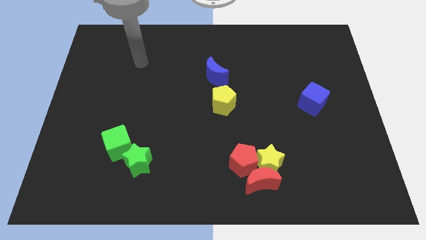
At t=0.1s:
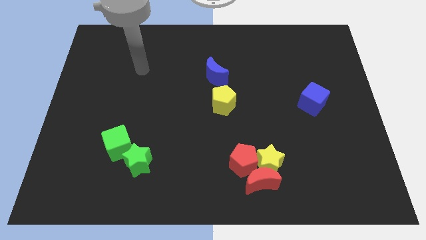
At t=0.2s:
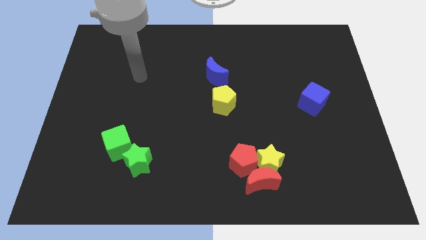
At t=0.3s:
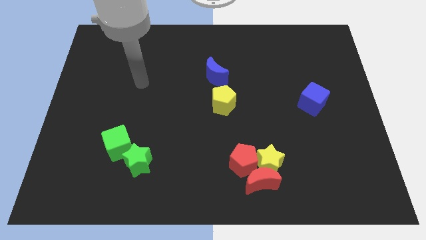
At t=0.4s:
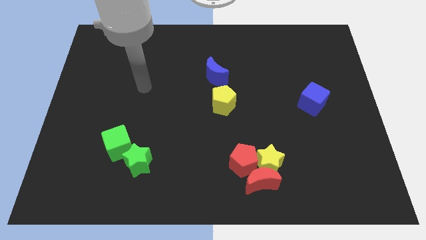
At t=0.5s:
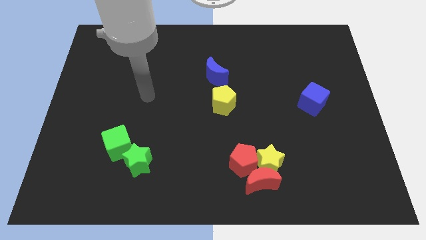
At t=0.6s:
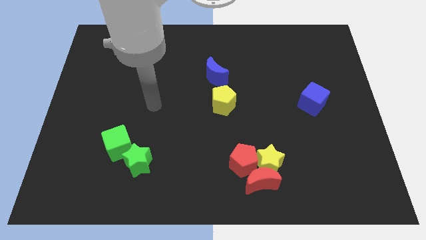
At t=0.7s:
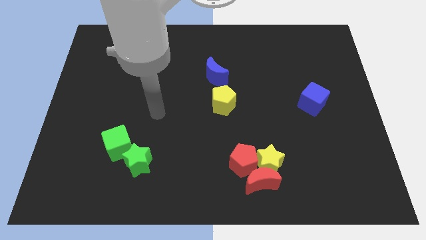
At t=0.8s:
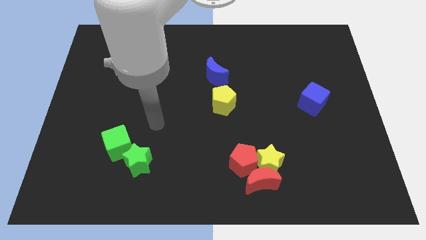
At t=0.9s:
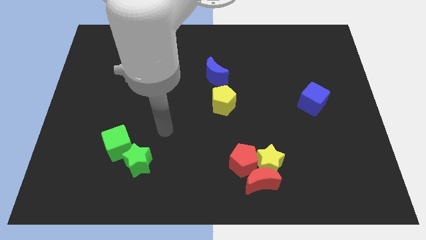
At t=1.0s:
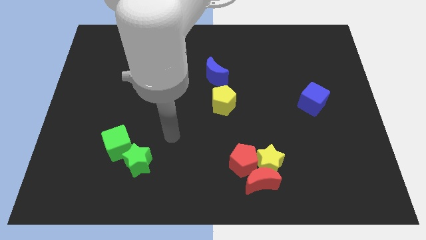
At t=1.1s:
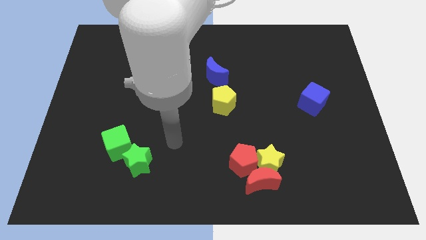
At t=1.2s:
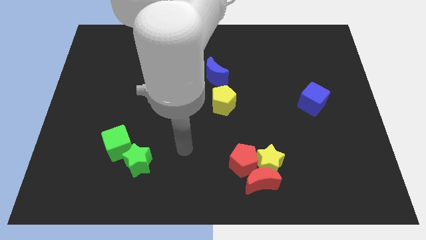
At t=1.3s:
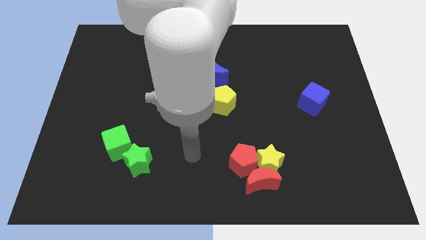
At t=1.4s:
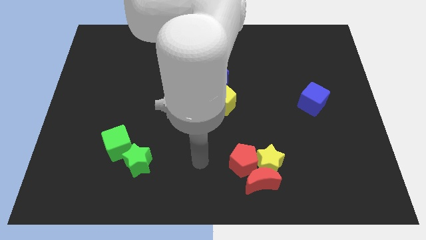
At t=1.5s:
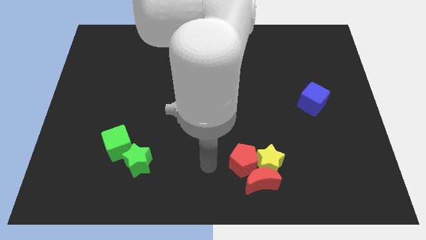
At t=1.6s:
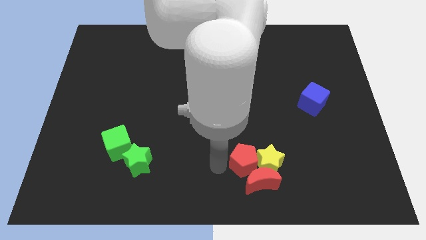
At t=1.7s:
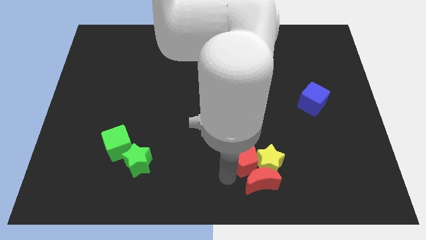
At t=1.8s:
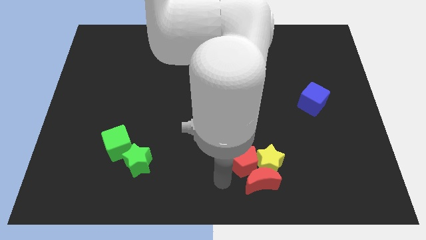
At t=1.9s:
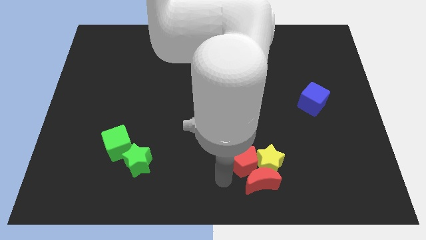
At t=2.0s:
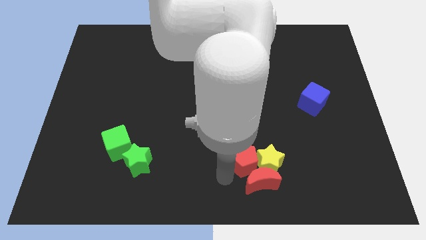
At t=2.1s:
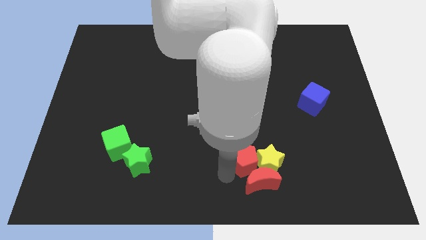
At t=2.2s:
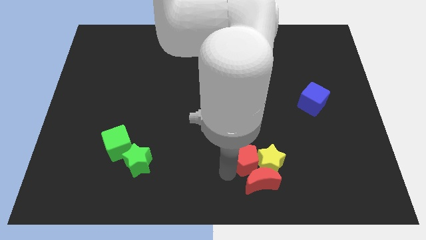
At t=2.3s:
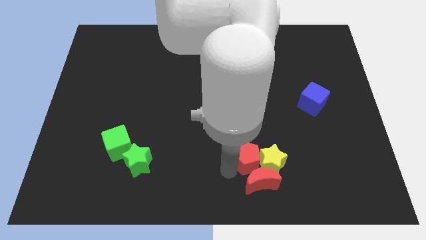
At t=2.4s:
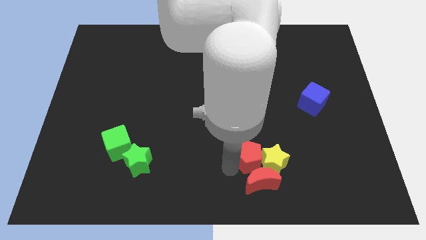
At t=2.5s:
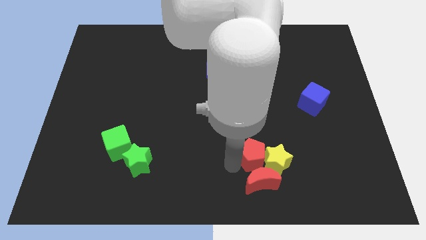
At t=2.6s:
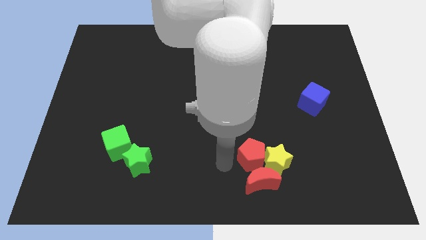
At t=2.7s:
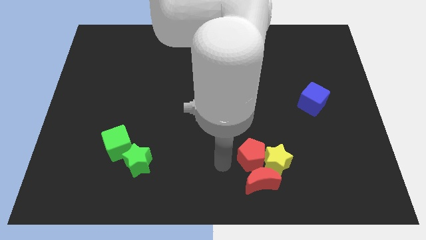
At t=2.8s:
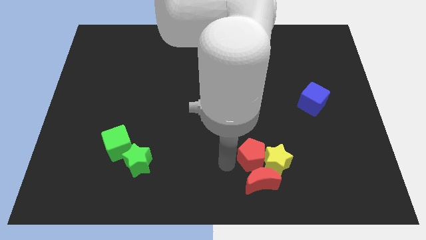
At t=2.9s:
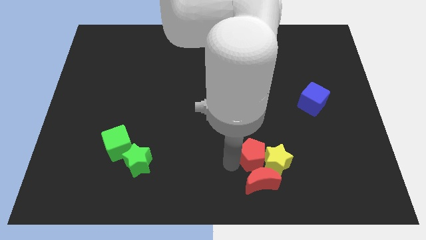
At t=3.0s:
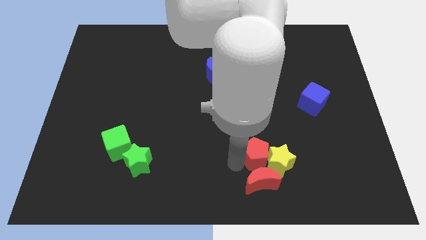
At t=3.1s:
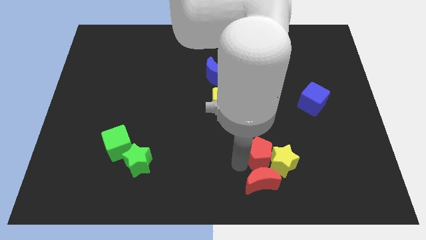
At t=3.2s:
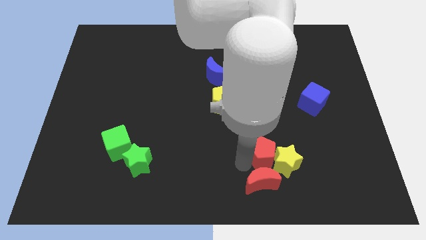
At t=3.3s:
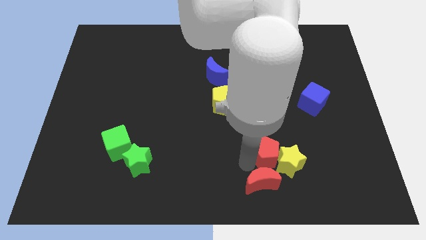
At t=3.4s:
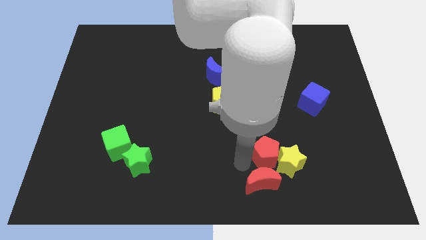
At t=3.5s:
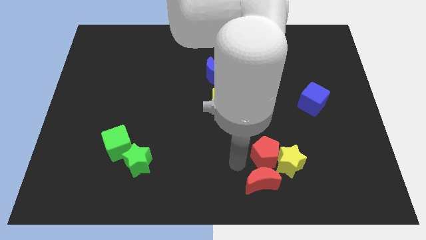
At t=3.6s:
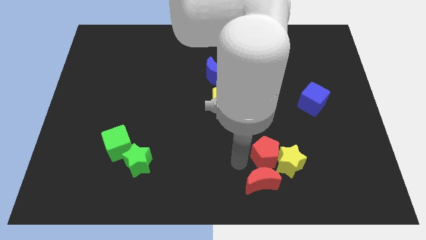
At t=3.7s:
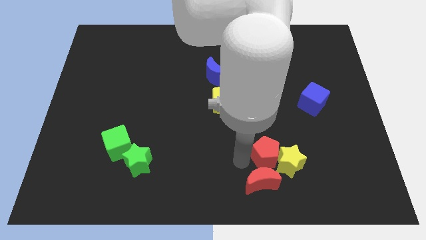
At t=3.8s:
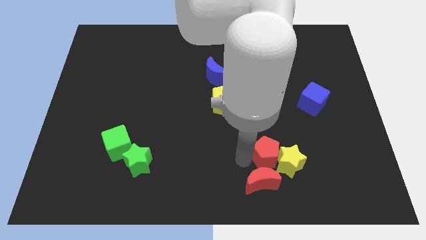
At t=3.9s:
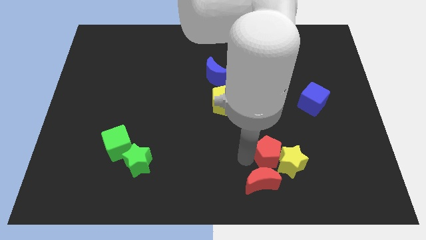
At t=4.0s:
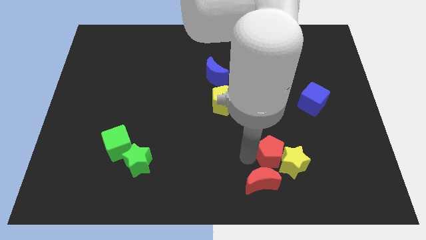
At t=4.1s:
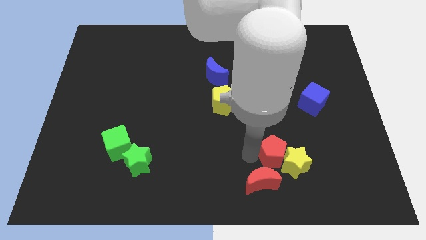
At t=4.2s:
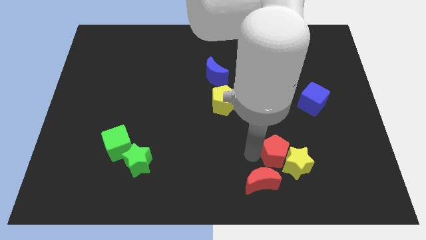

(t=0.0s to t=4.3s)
slightly slide the red pentagon right

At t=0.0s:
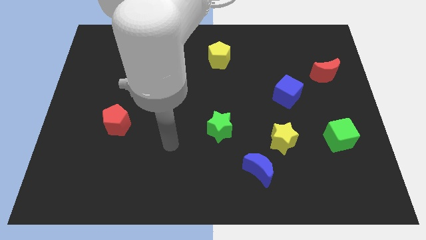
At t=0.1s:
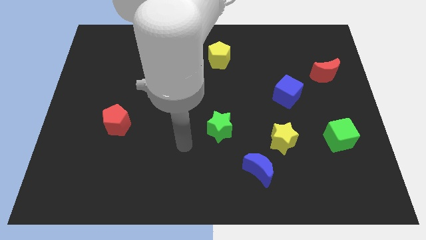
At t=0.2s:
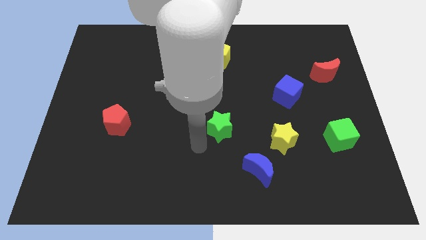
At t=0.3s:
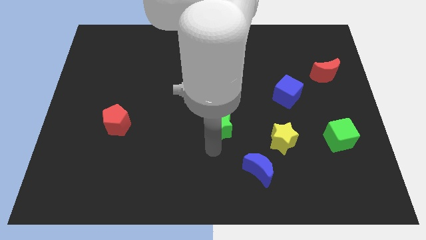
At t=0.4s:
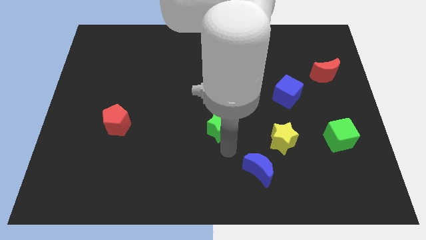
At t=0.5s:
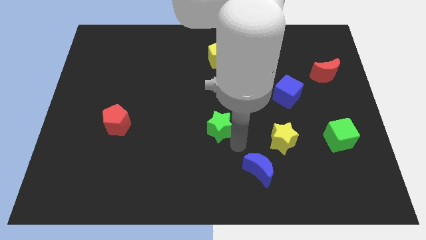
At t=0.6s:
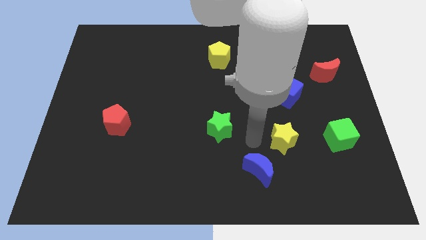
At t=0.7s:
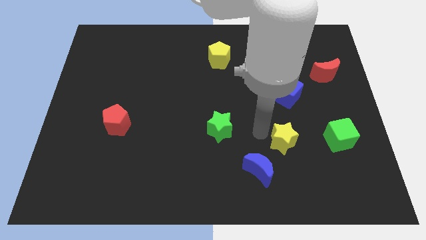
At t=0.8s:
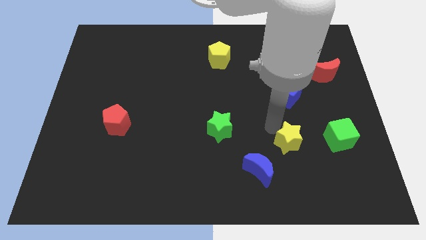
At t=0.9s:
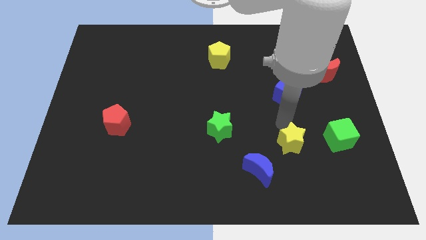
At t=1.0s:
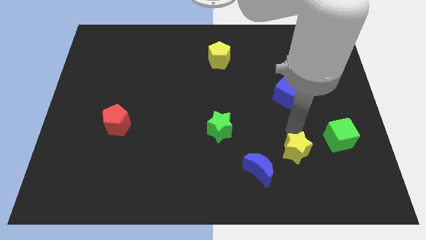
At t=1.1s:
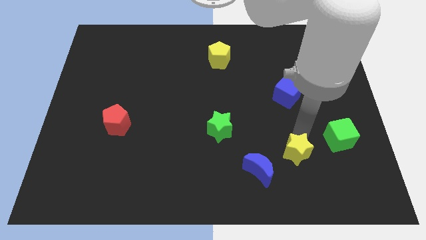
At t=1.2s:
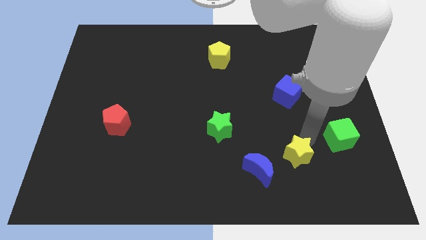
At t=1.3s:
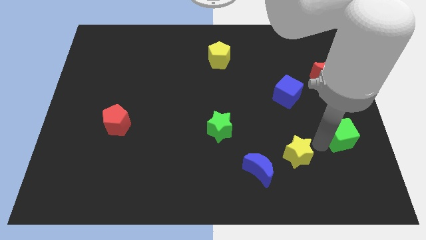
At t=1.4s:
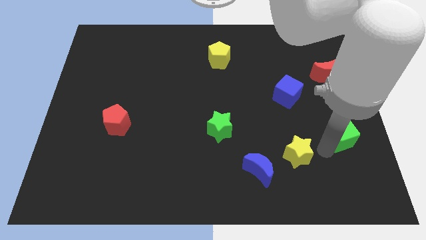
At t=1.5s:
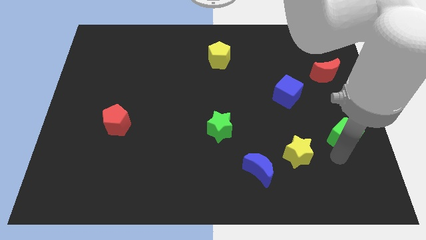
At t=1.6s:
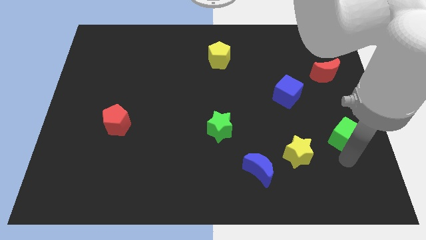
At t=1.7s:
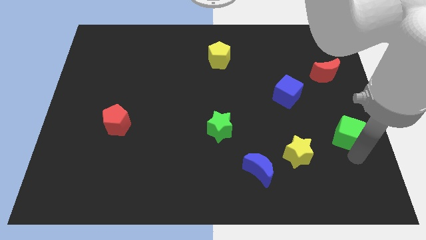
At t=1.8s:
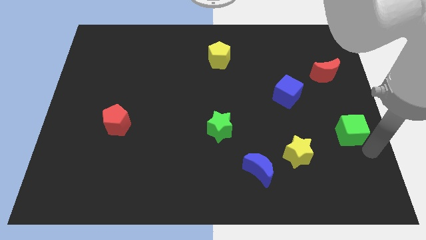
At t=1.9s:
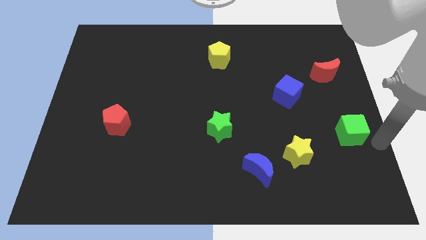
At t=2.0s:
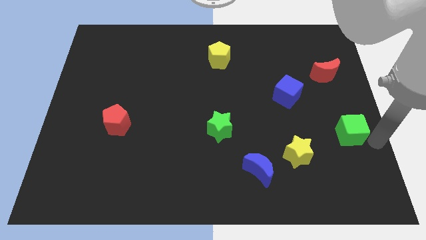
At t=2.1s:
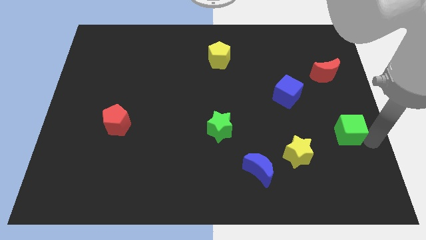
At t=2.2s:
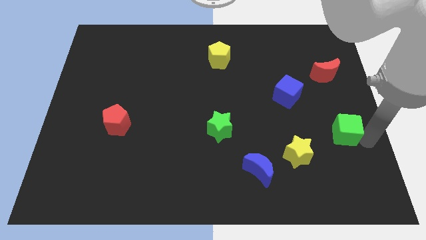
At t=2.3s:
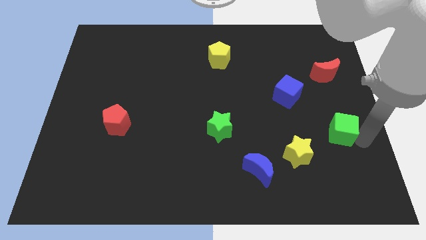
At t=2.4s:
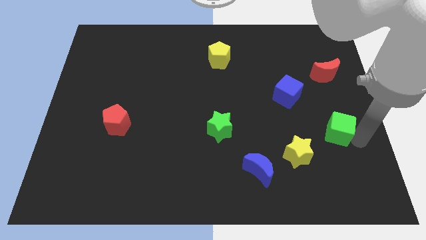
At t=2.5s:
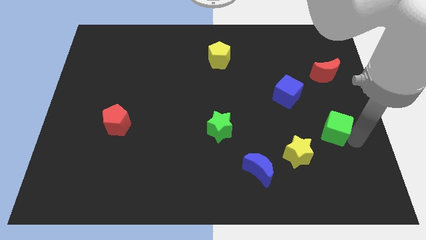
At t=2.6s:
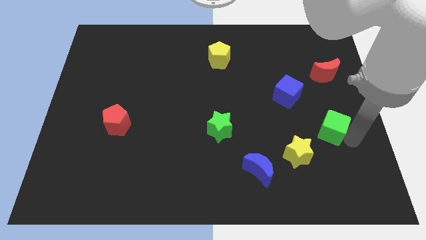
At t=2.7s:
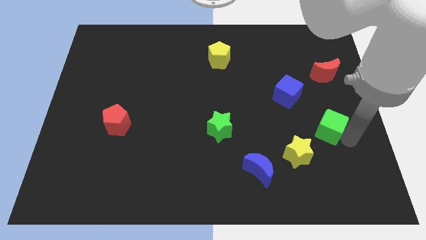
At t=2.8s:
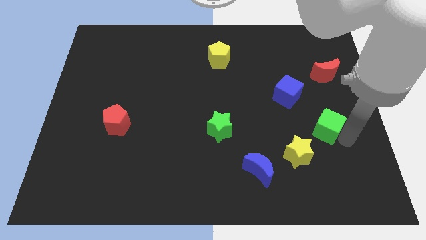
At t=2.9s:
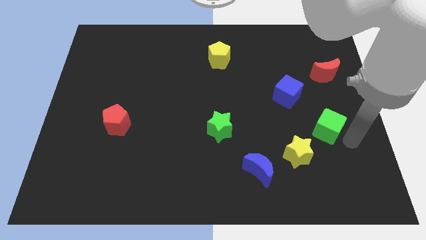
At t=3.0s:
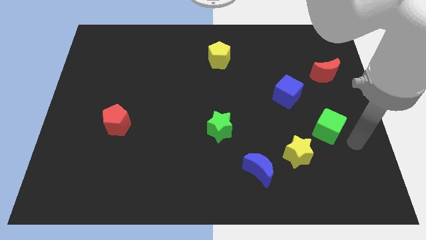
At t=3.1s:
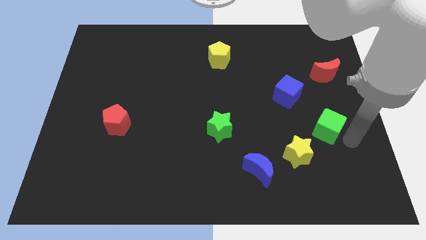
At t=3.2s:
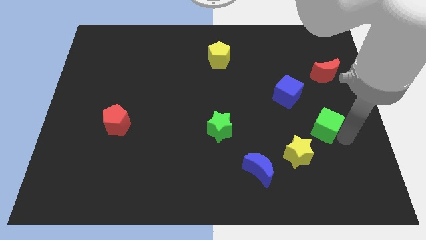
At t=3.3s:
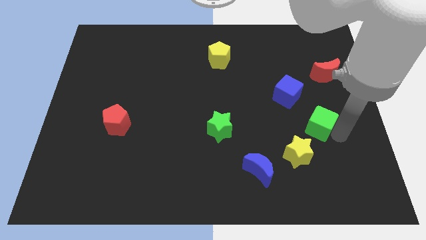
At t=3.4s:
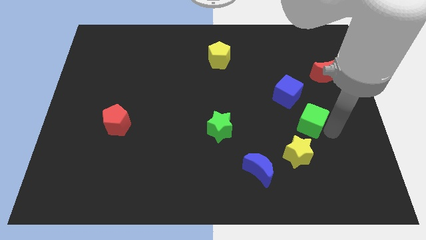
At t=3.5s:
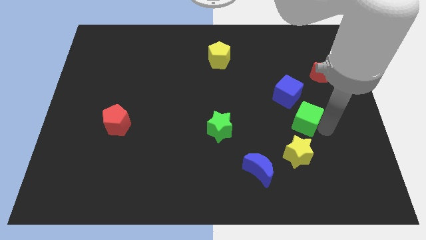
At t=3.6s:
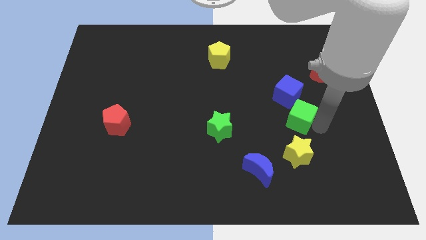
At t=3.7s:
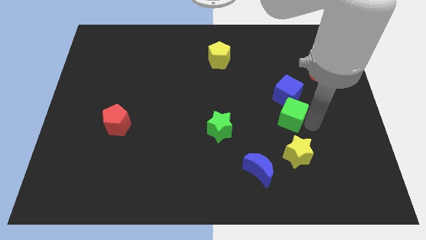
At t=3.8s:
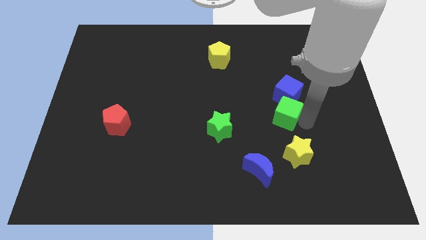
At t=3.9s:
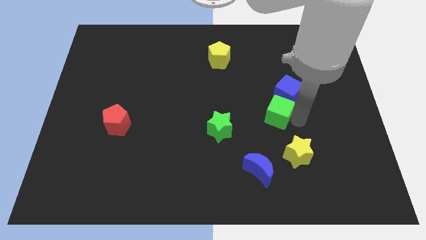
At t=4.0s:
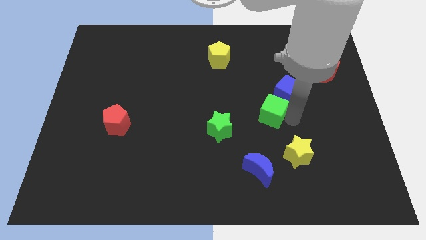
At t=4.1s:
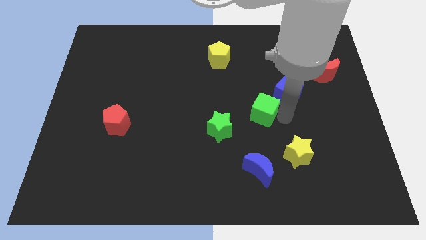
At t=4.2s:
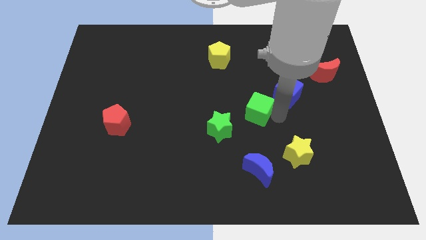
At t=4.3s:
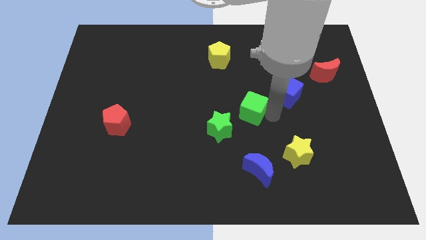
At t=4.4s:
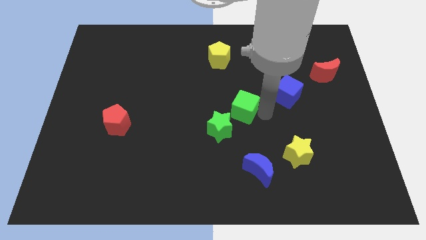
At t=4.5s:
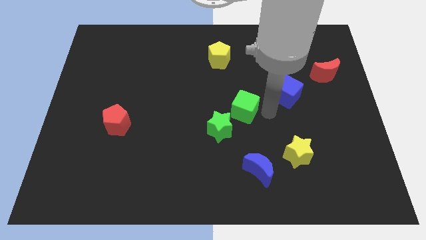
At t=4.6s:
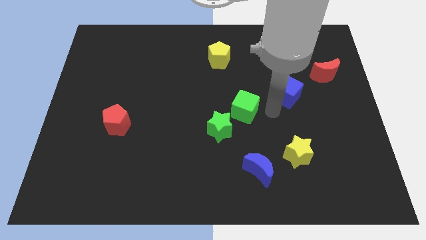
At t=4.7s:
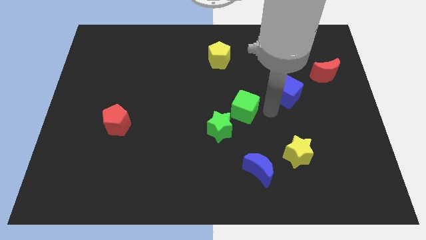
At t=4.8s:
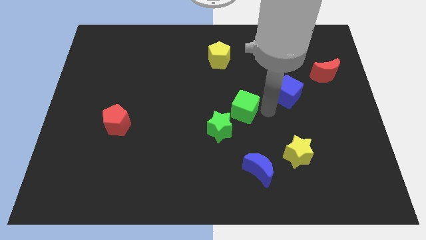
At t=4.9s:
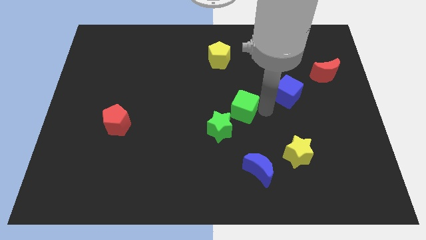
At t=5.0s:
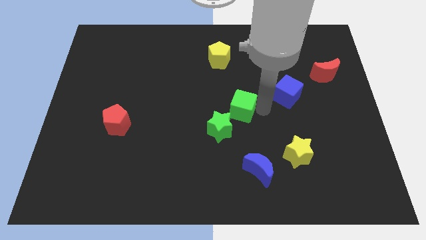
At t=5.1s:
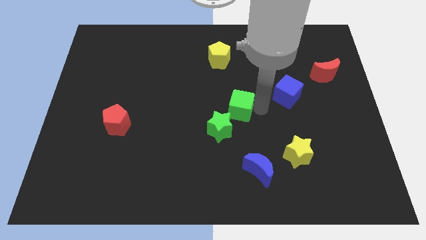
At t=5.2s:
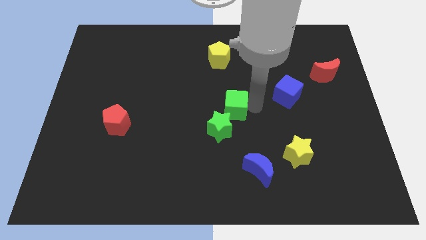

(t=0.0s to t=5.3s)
move the green cube to the left
